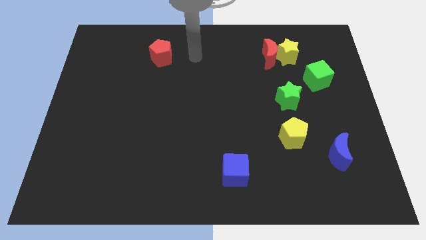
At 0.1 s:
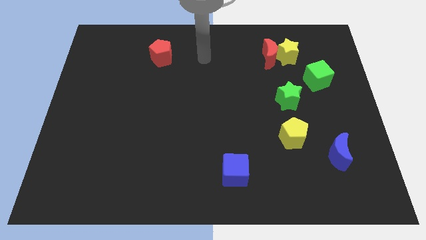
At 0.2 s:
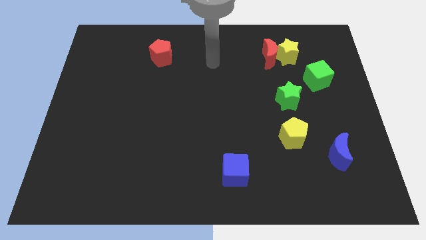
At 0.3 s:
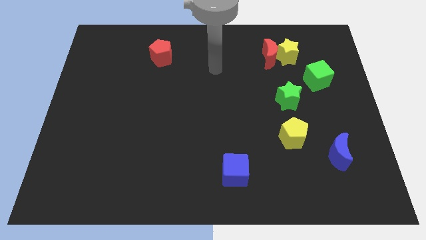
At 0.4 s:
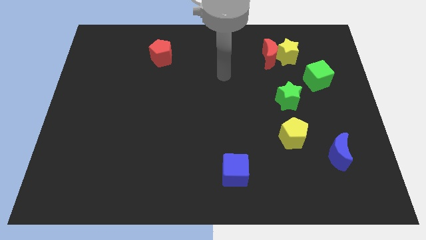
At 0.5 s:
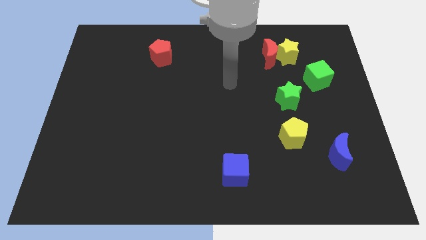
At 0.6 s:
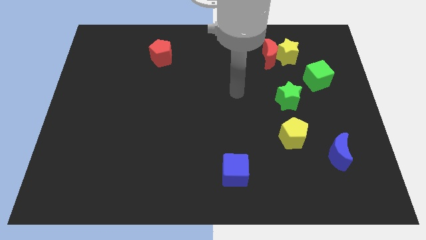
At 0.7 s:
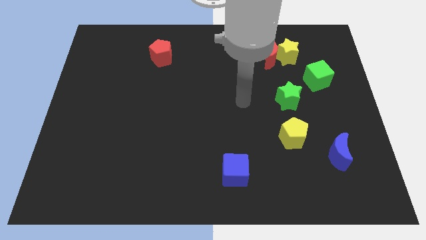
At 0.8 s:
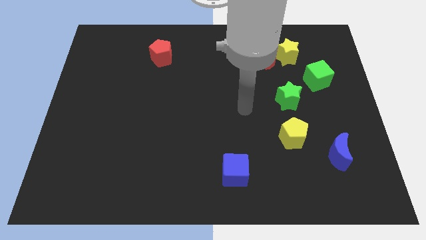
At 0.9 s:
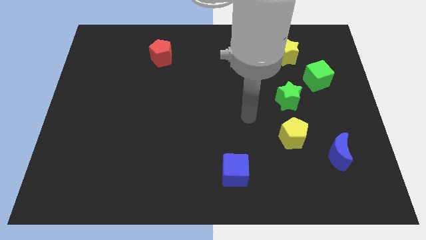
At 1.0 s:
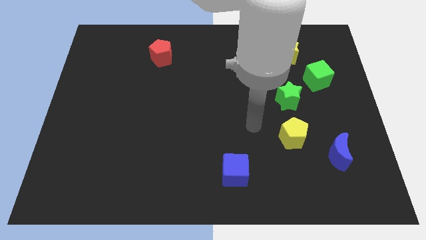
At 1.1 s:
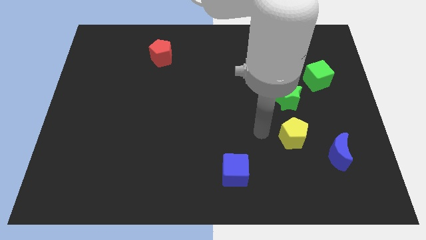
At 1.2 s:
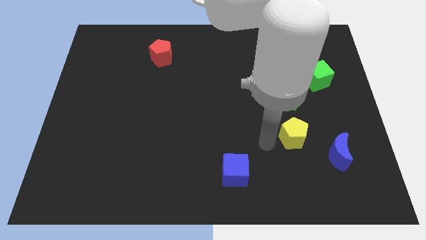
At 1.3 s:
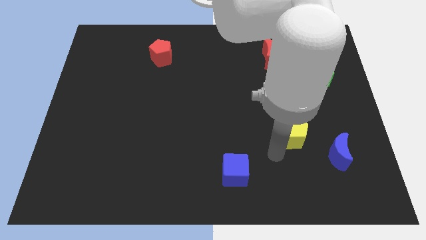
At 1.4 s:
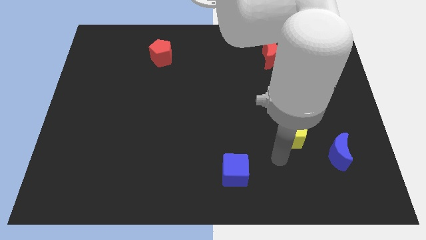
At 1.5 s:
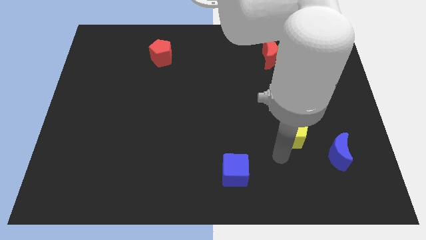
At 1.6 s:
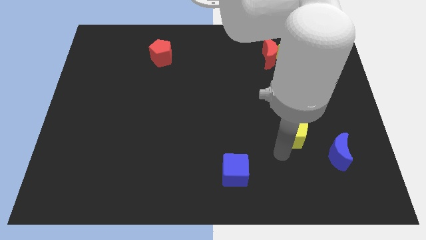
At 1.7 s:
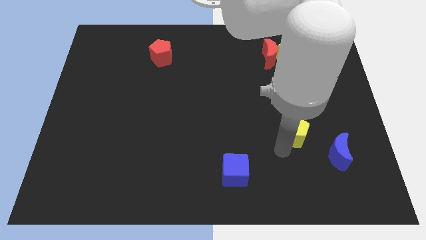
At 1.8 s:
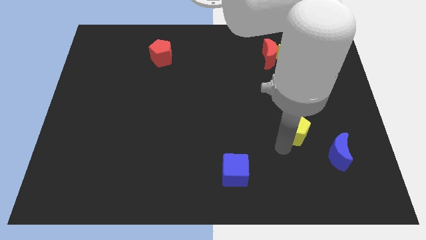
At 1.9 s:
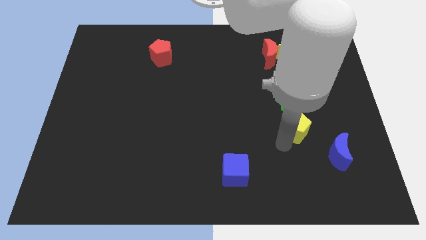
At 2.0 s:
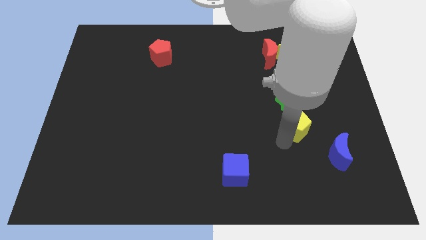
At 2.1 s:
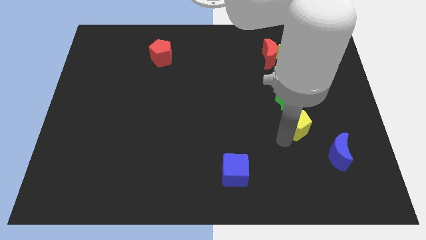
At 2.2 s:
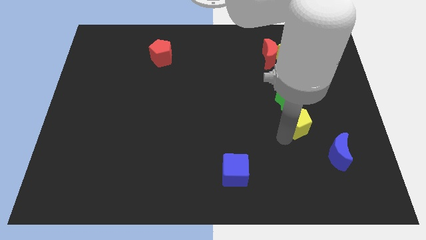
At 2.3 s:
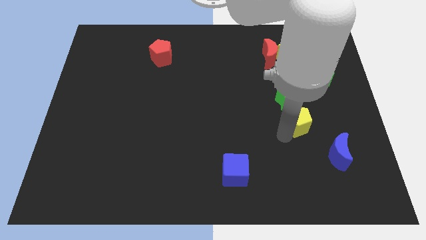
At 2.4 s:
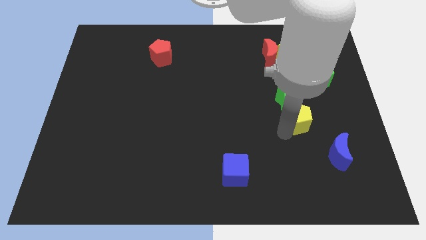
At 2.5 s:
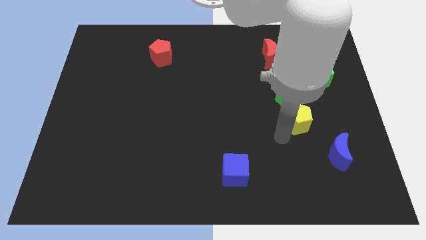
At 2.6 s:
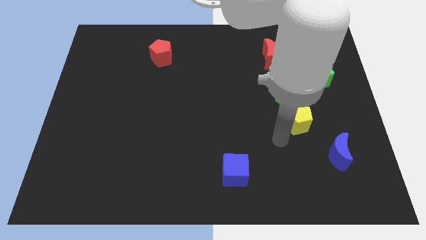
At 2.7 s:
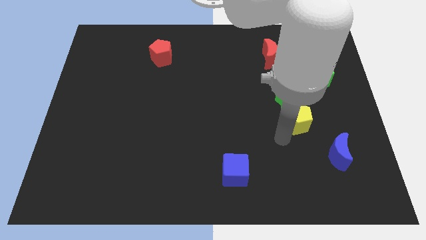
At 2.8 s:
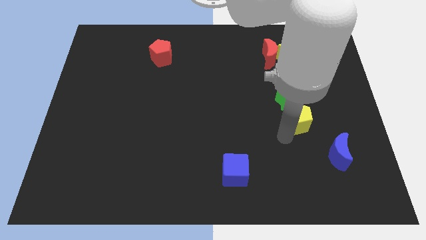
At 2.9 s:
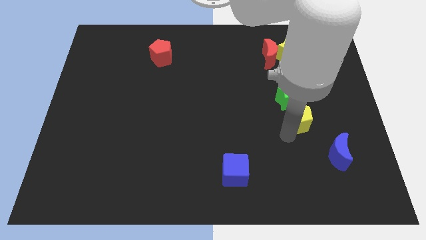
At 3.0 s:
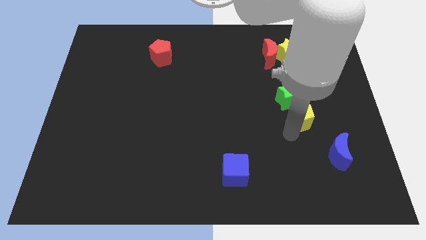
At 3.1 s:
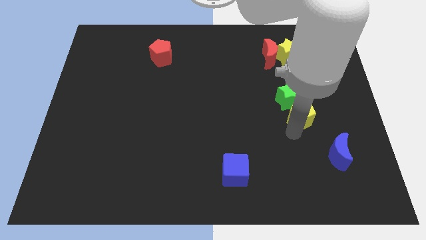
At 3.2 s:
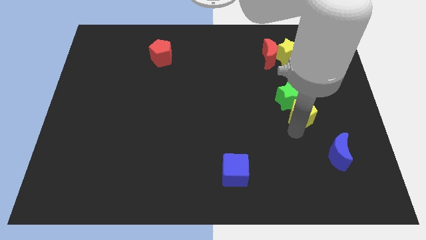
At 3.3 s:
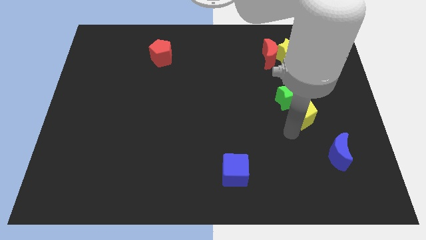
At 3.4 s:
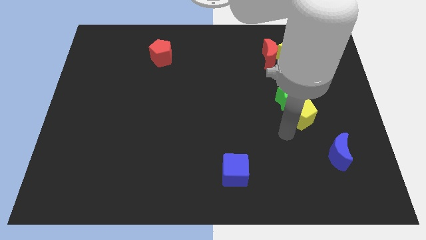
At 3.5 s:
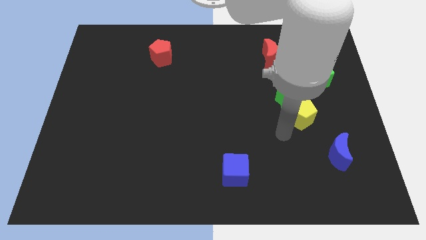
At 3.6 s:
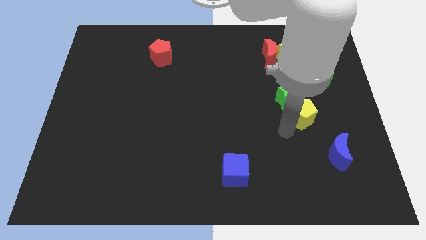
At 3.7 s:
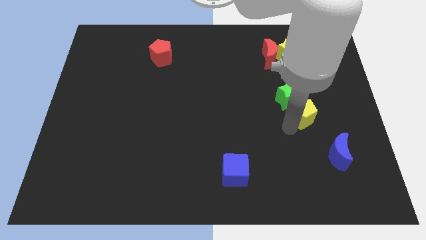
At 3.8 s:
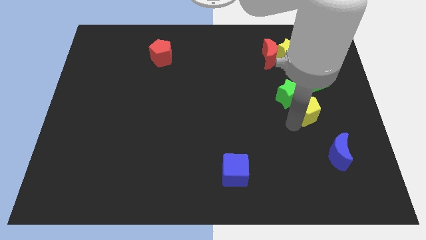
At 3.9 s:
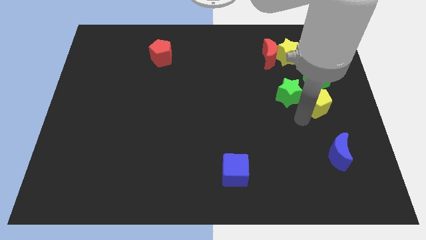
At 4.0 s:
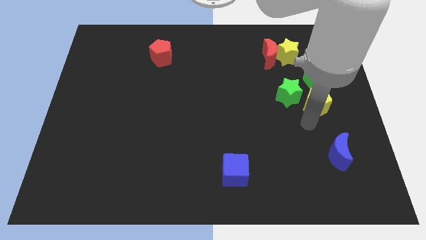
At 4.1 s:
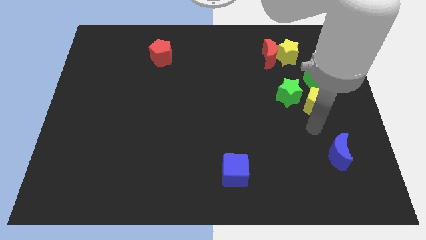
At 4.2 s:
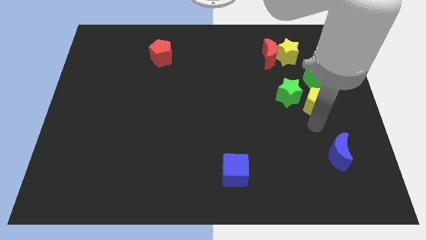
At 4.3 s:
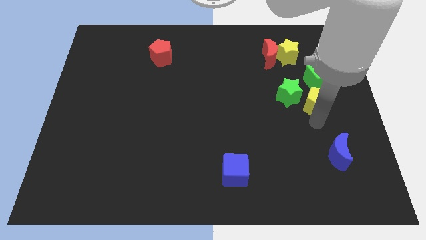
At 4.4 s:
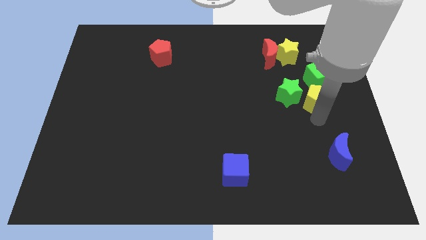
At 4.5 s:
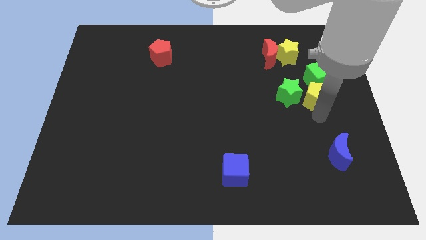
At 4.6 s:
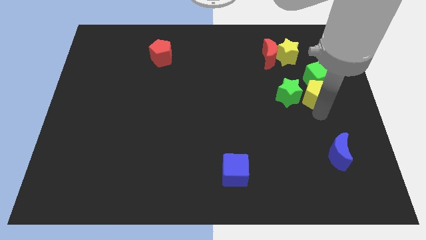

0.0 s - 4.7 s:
push the yellow pentagon towards the green cube

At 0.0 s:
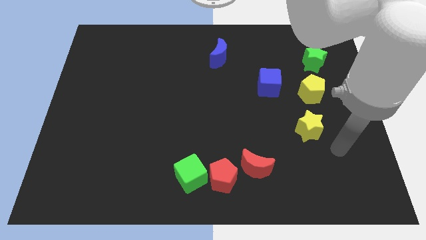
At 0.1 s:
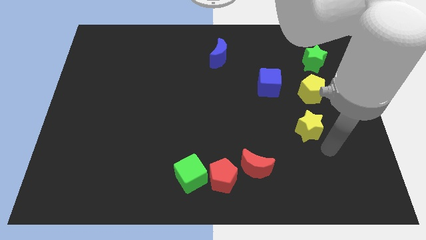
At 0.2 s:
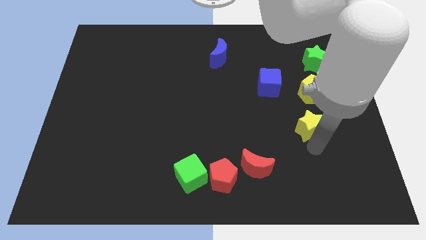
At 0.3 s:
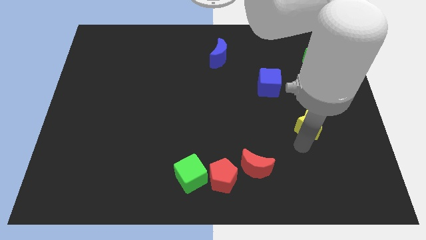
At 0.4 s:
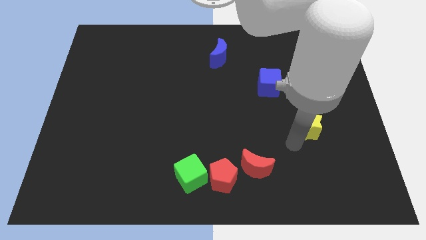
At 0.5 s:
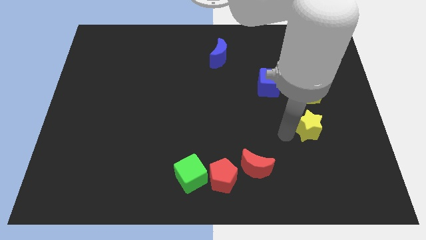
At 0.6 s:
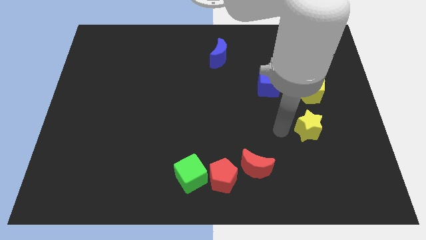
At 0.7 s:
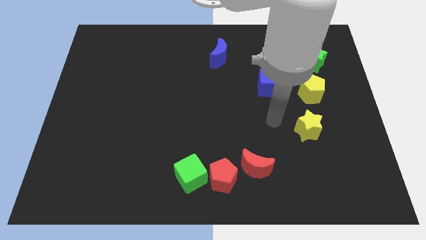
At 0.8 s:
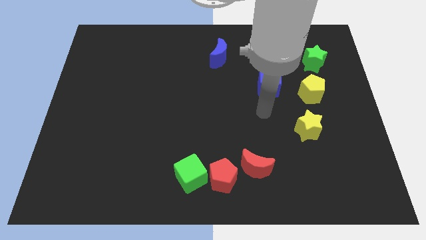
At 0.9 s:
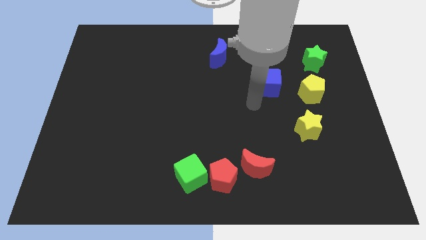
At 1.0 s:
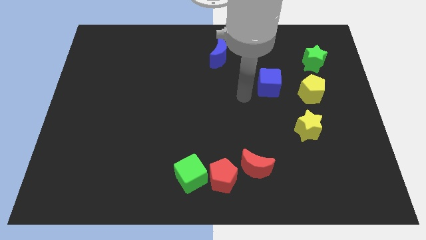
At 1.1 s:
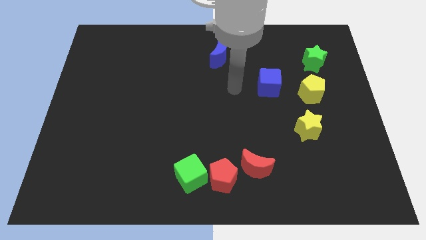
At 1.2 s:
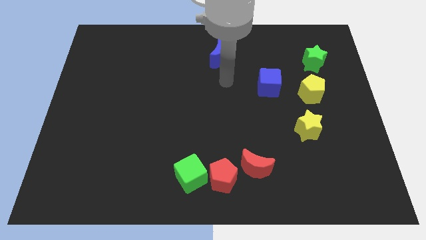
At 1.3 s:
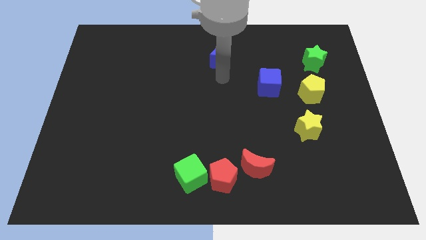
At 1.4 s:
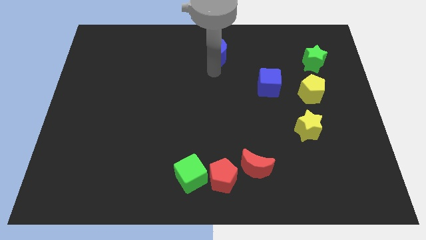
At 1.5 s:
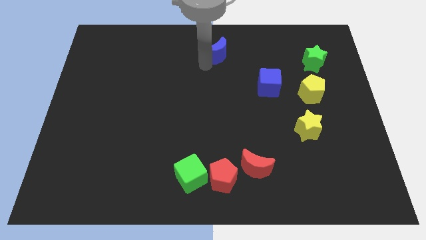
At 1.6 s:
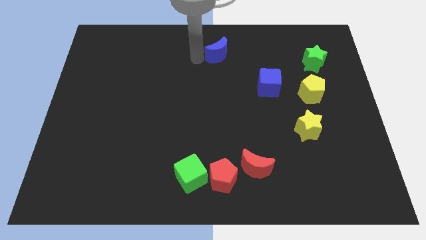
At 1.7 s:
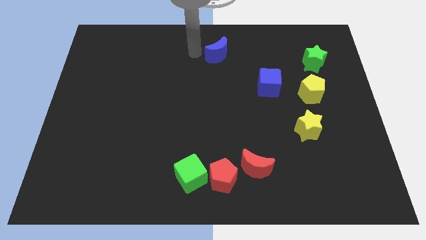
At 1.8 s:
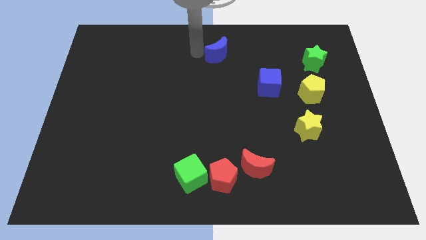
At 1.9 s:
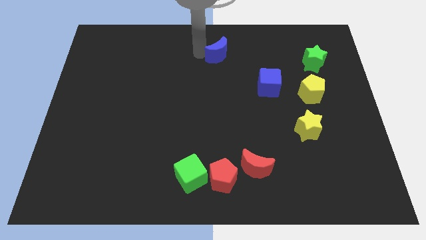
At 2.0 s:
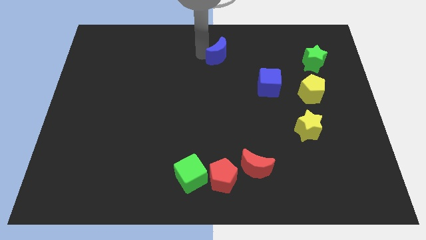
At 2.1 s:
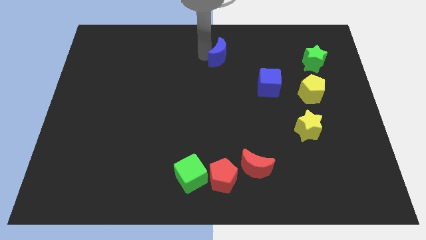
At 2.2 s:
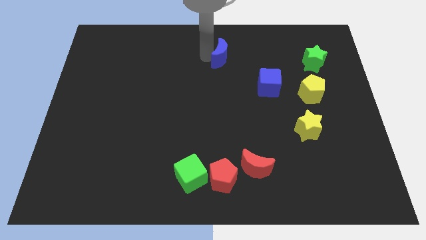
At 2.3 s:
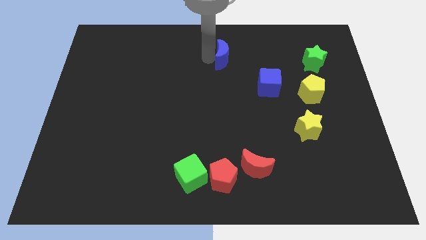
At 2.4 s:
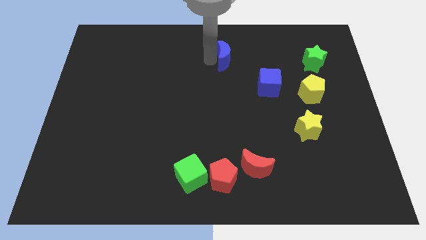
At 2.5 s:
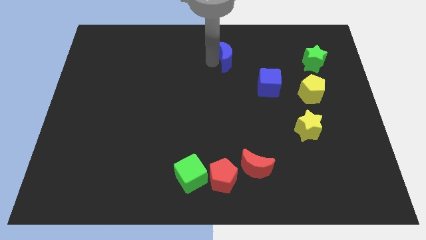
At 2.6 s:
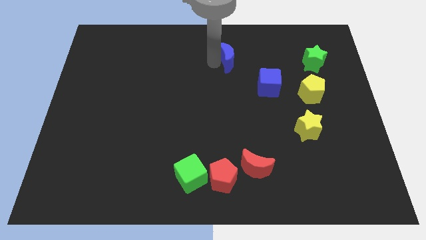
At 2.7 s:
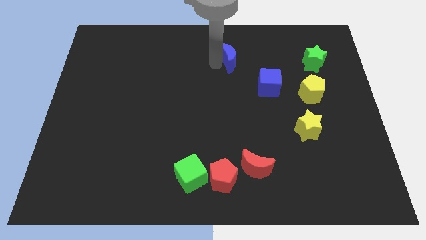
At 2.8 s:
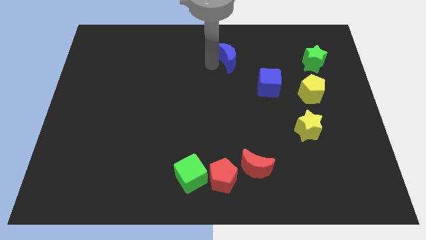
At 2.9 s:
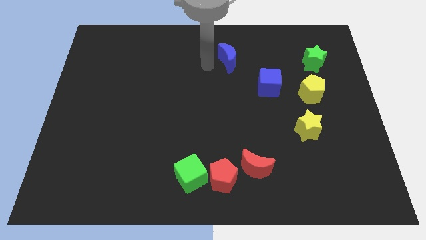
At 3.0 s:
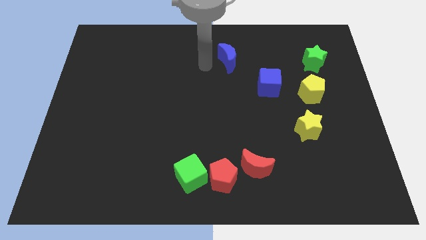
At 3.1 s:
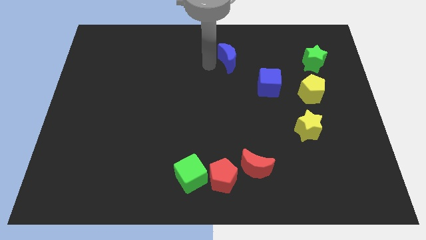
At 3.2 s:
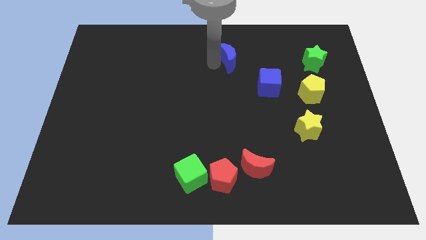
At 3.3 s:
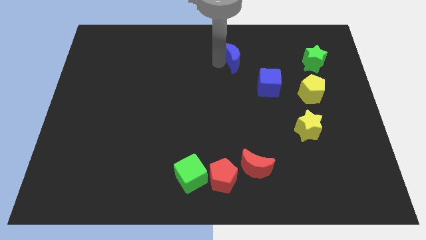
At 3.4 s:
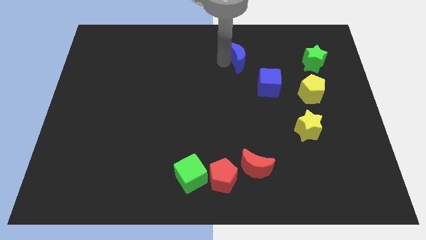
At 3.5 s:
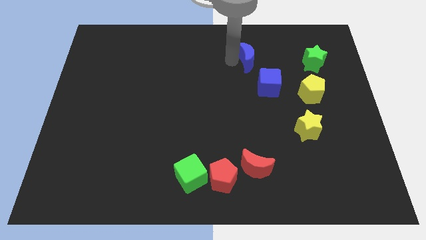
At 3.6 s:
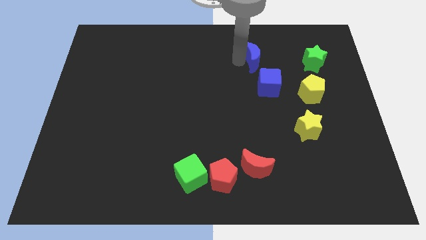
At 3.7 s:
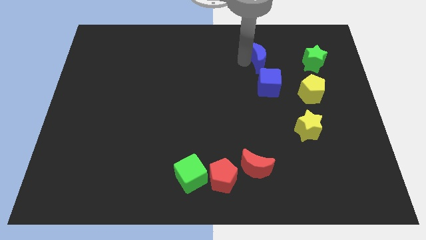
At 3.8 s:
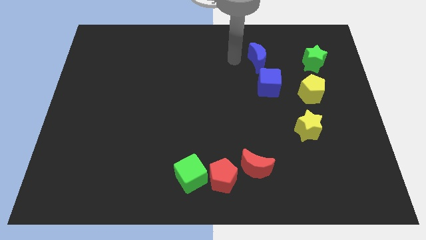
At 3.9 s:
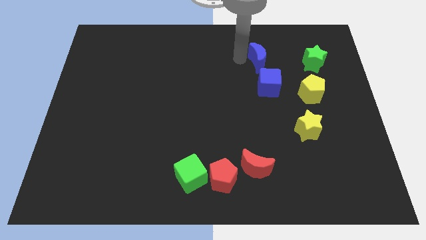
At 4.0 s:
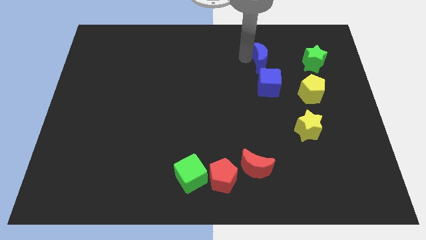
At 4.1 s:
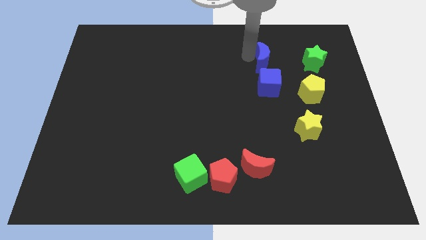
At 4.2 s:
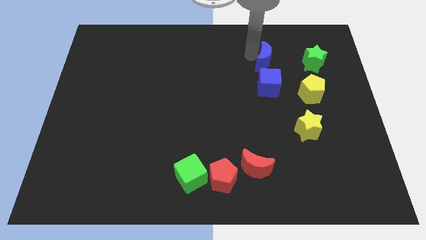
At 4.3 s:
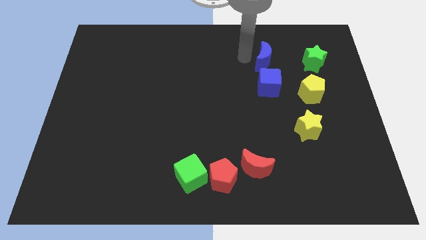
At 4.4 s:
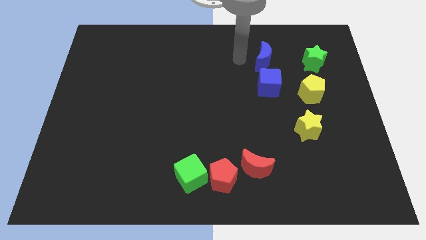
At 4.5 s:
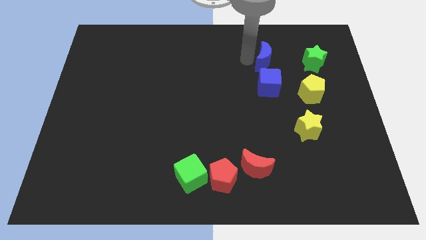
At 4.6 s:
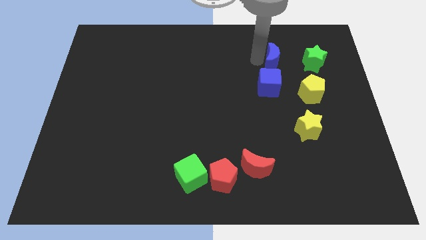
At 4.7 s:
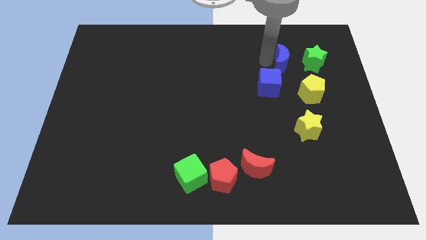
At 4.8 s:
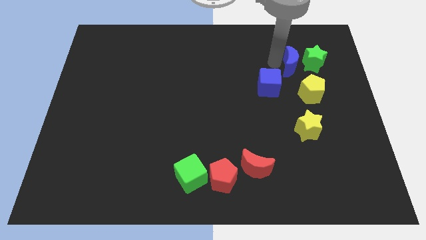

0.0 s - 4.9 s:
put the blue moon close to the green star
